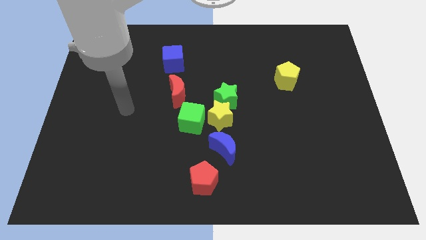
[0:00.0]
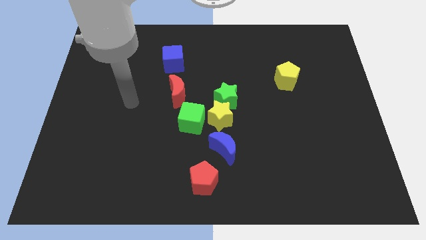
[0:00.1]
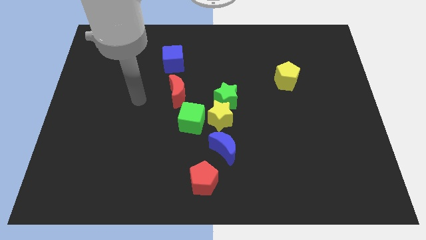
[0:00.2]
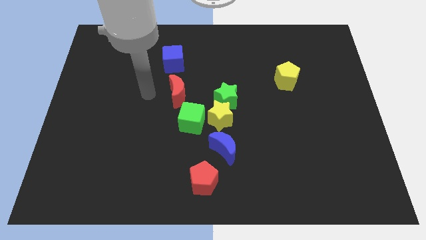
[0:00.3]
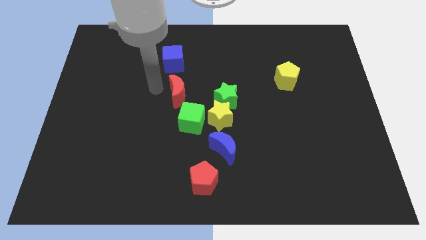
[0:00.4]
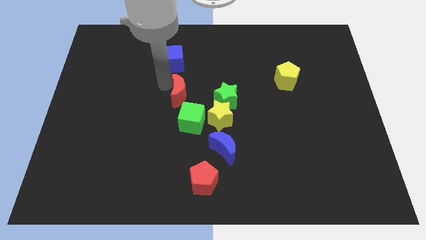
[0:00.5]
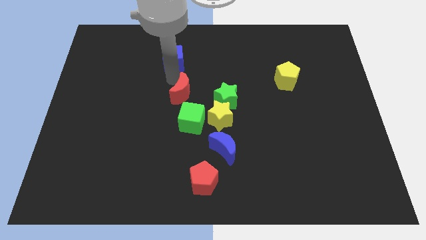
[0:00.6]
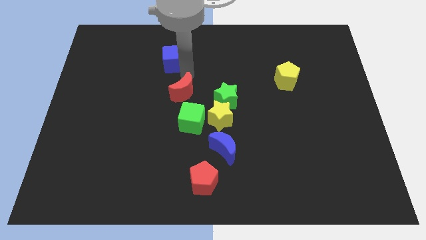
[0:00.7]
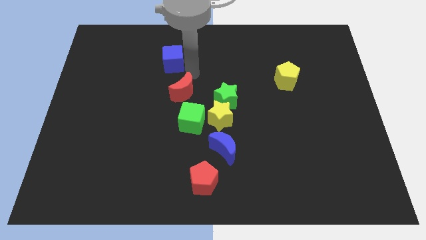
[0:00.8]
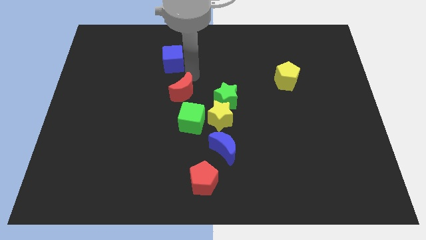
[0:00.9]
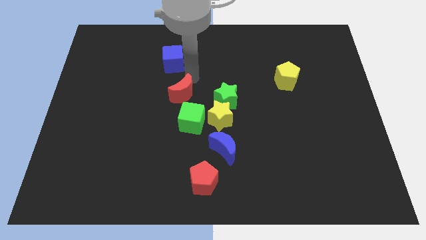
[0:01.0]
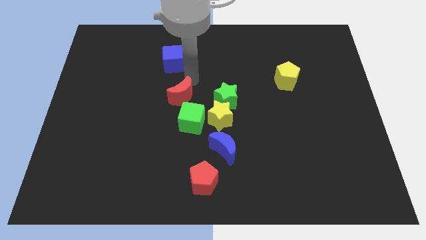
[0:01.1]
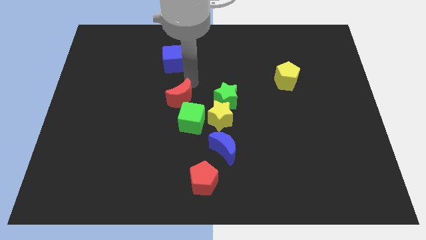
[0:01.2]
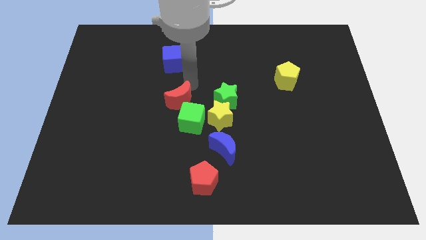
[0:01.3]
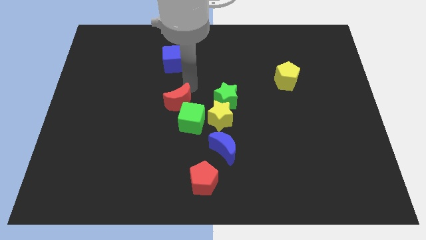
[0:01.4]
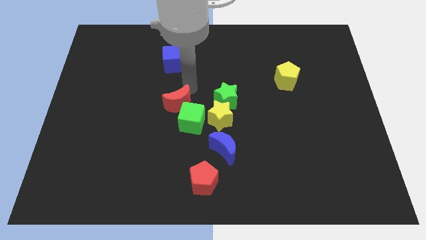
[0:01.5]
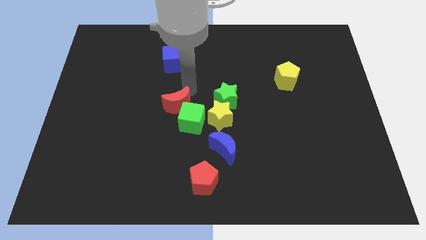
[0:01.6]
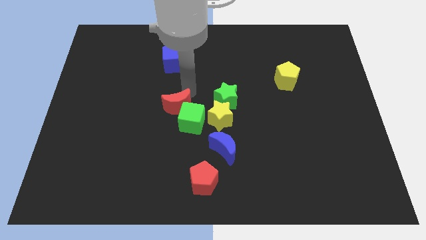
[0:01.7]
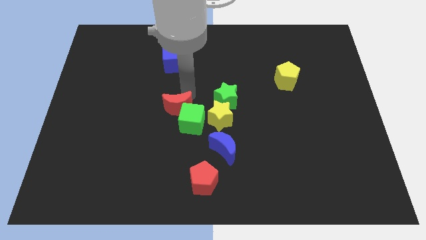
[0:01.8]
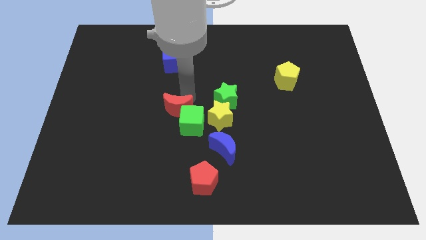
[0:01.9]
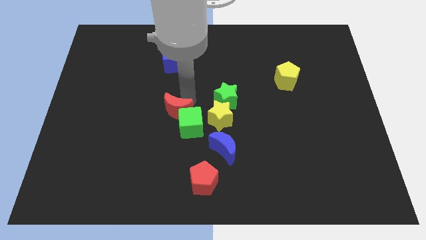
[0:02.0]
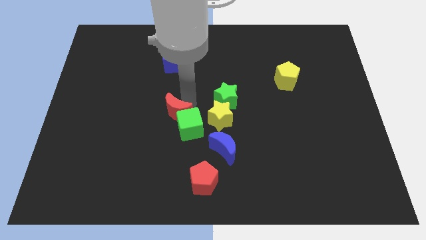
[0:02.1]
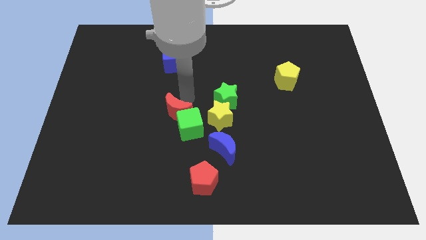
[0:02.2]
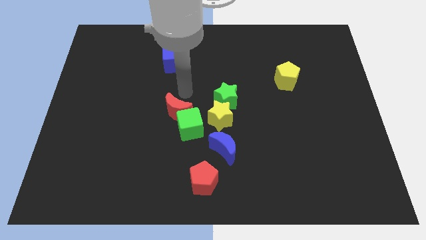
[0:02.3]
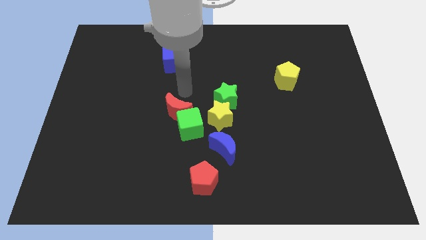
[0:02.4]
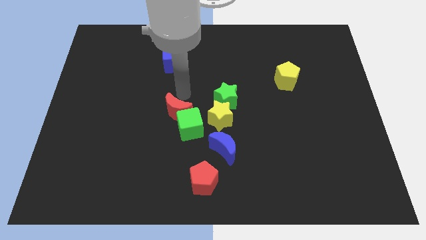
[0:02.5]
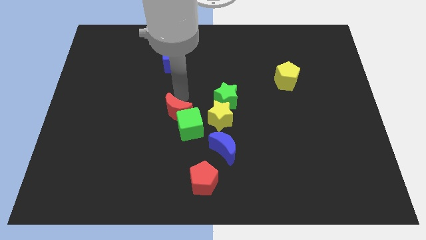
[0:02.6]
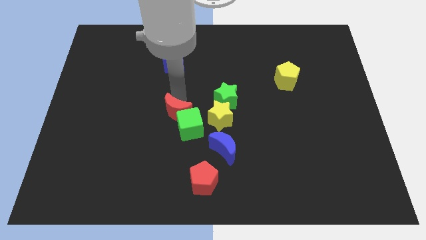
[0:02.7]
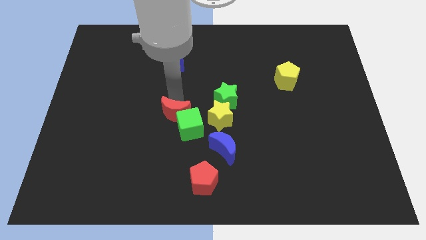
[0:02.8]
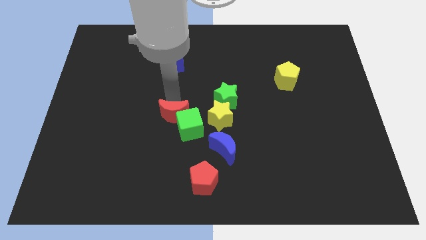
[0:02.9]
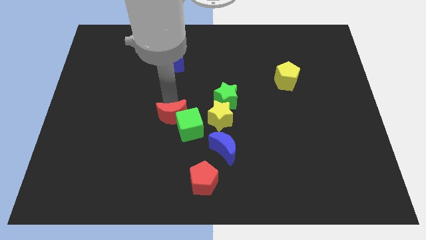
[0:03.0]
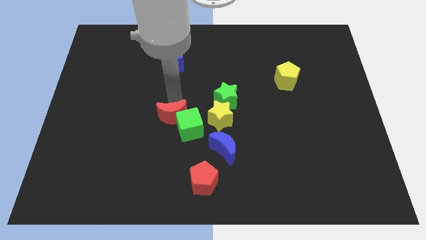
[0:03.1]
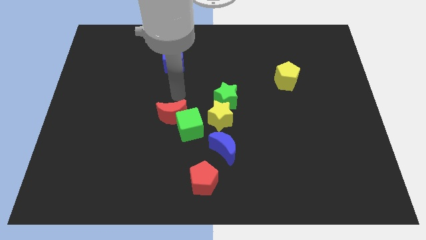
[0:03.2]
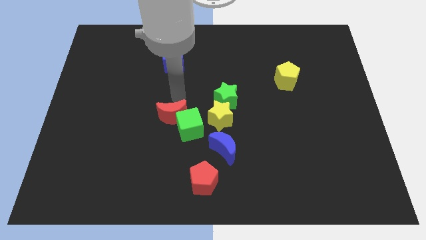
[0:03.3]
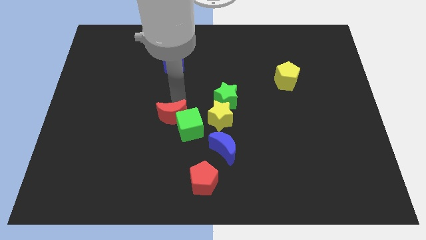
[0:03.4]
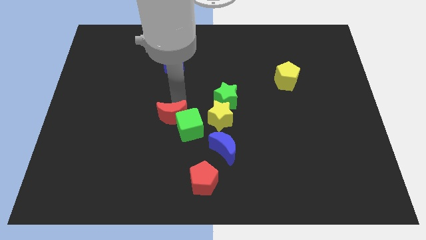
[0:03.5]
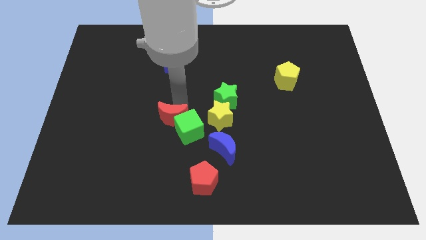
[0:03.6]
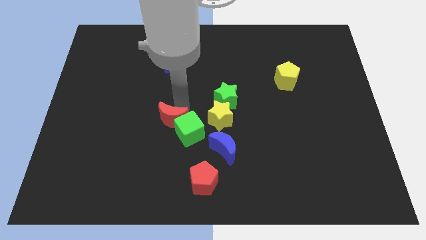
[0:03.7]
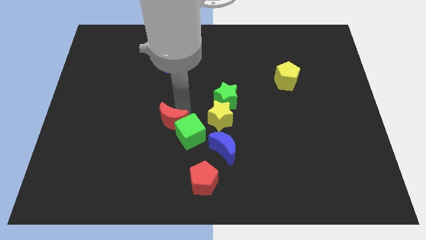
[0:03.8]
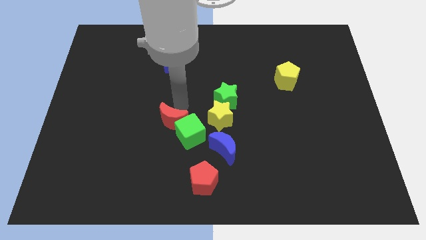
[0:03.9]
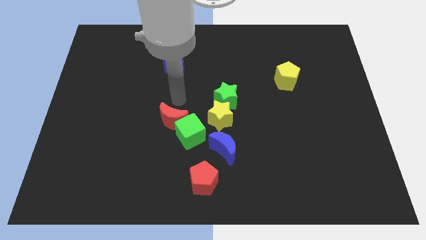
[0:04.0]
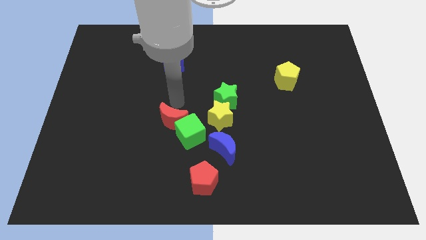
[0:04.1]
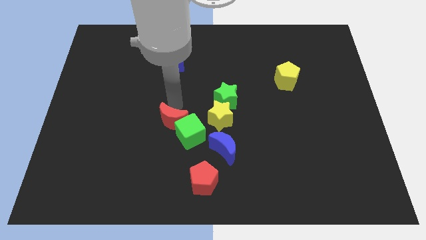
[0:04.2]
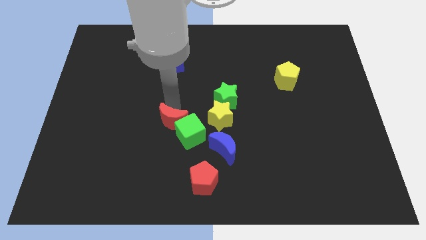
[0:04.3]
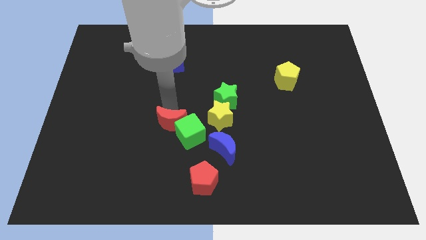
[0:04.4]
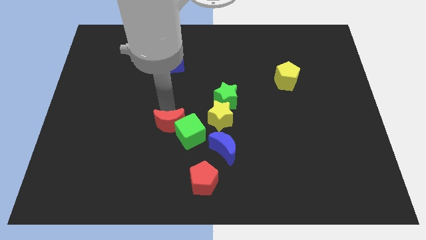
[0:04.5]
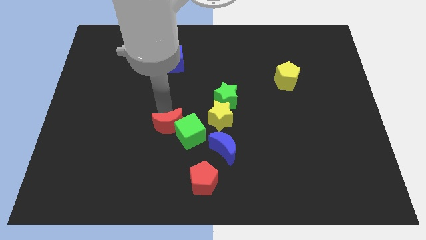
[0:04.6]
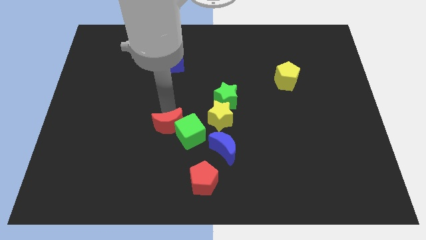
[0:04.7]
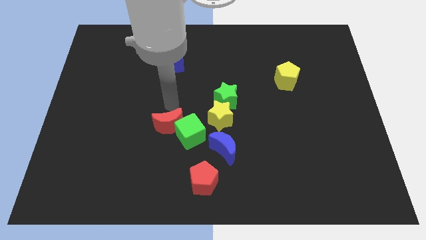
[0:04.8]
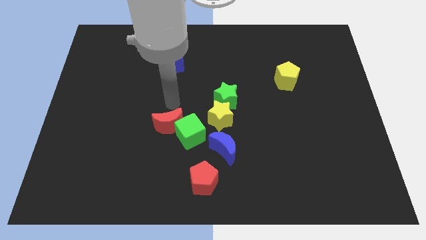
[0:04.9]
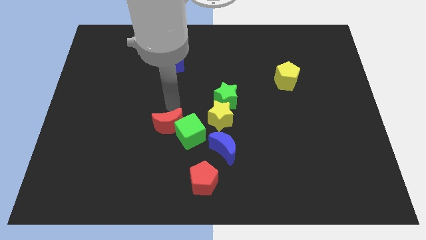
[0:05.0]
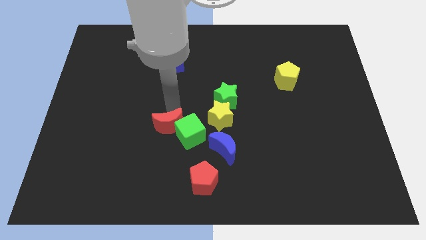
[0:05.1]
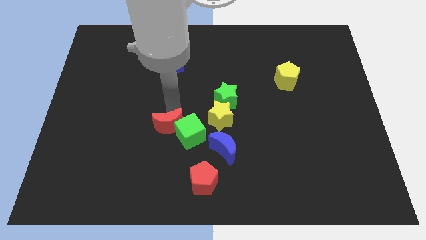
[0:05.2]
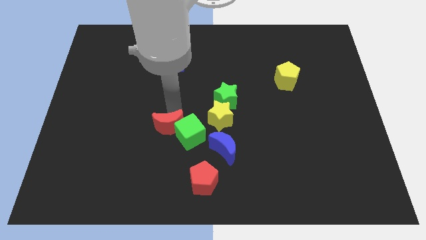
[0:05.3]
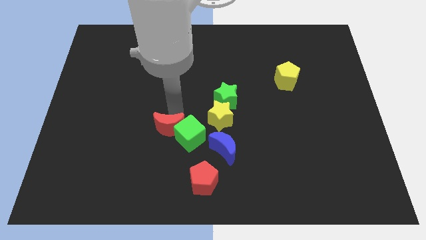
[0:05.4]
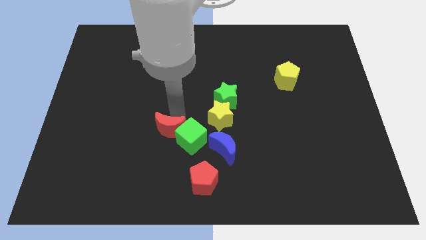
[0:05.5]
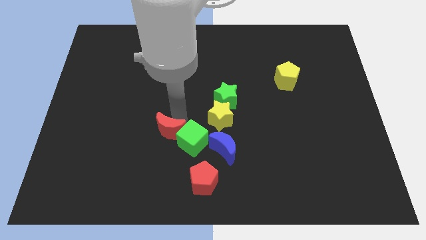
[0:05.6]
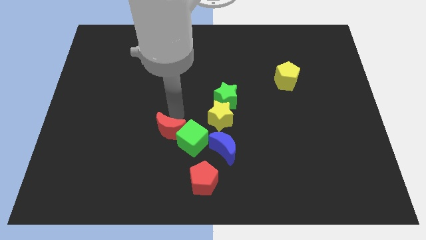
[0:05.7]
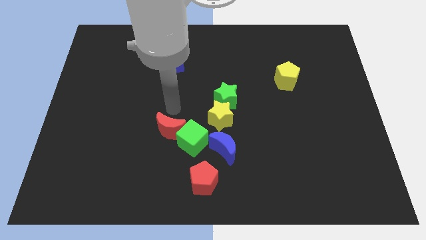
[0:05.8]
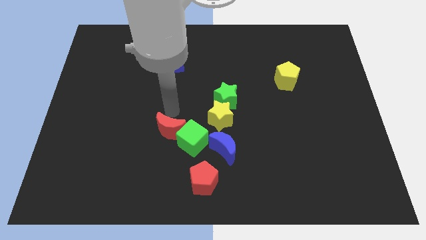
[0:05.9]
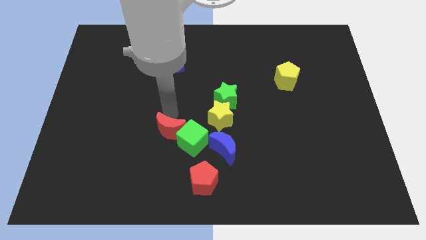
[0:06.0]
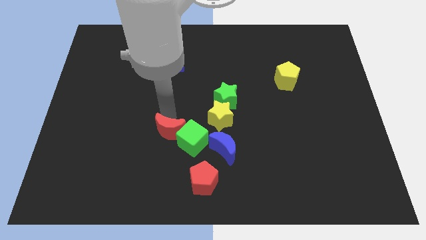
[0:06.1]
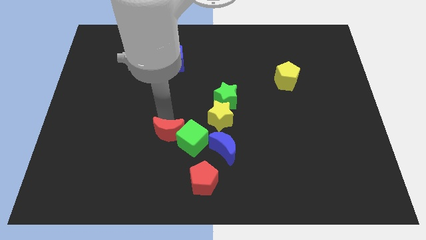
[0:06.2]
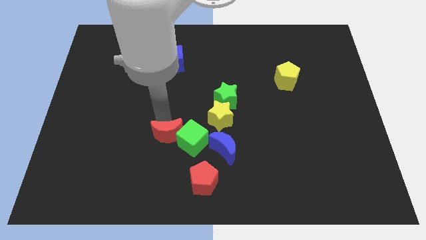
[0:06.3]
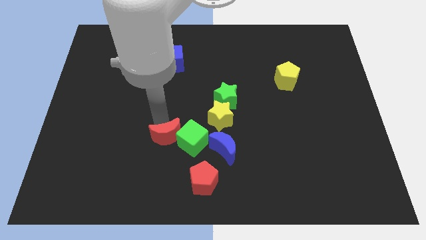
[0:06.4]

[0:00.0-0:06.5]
slide the red moon to the bottom left side of the green cube

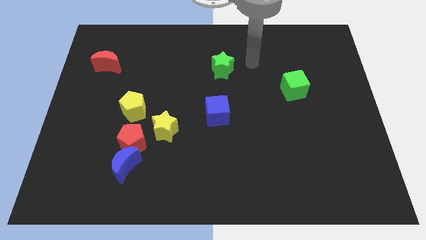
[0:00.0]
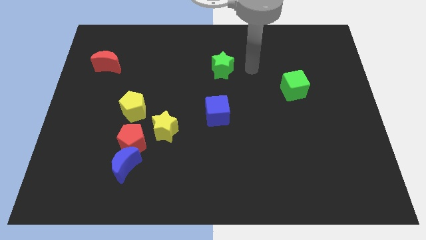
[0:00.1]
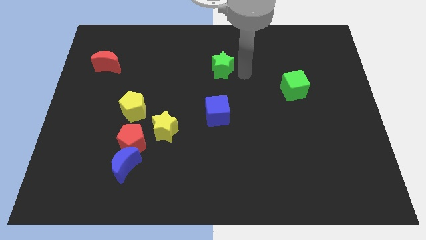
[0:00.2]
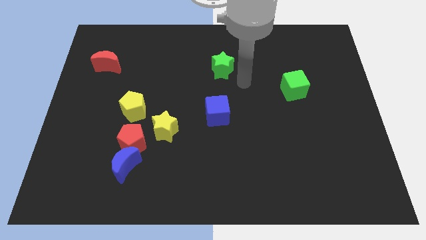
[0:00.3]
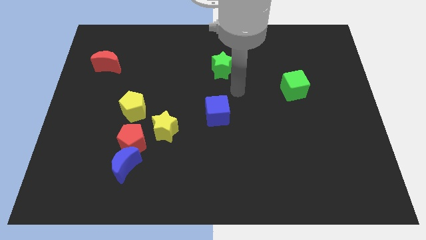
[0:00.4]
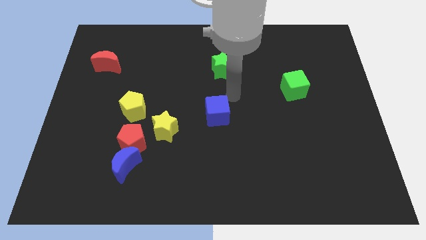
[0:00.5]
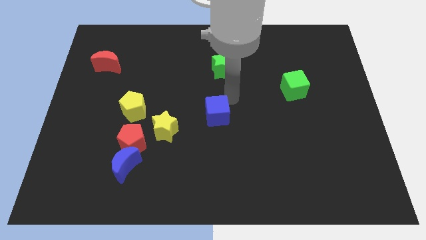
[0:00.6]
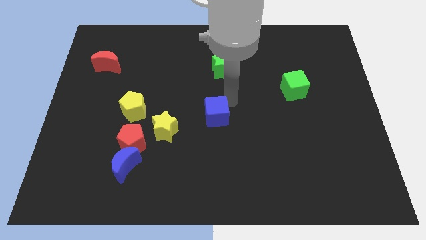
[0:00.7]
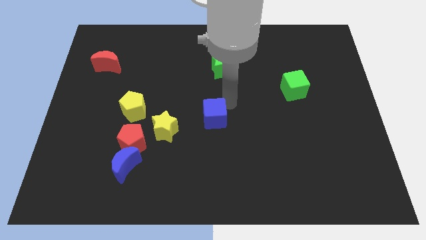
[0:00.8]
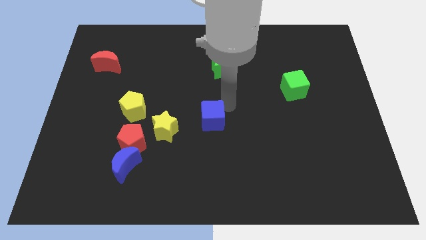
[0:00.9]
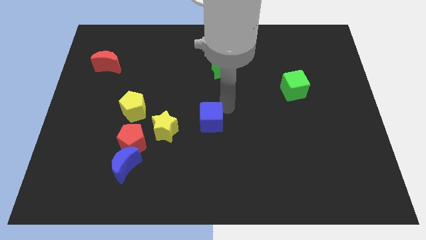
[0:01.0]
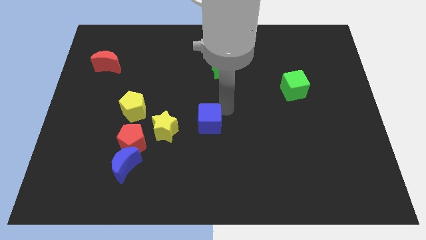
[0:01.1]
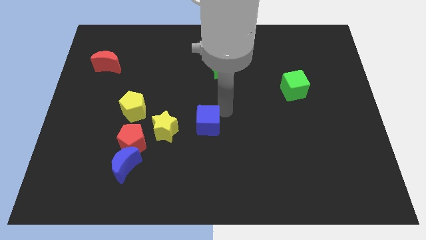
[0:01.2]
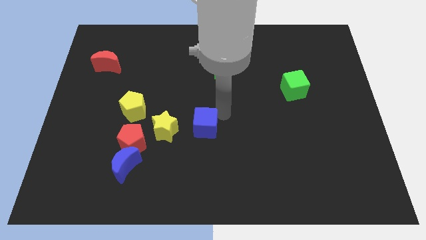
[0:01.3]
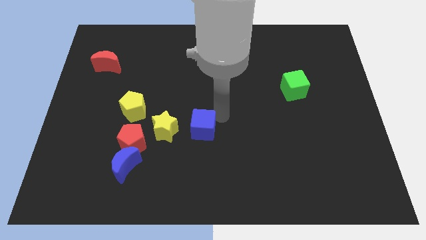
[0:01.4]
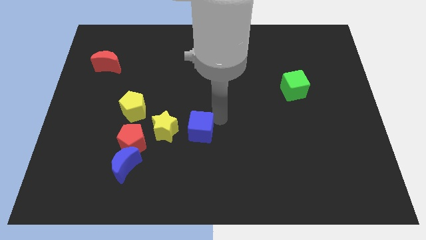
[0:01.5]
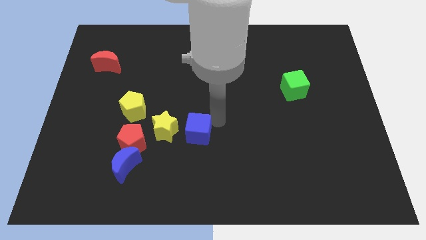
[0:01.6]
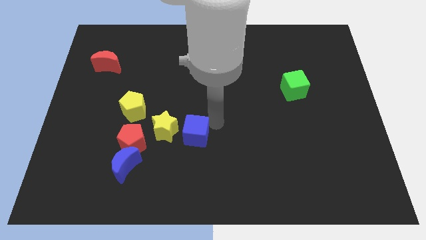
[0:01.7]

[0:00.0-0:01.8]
slide the blue cube to the bottom right side of the yellow star

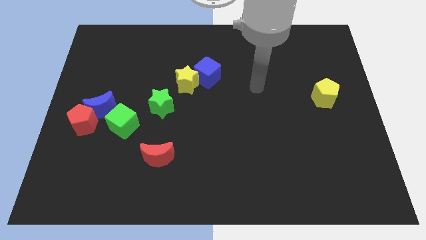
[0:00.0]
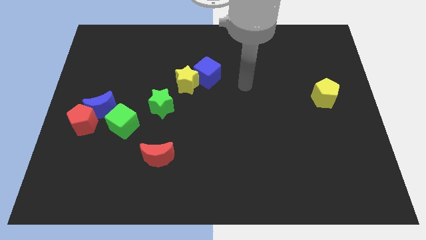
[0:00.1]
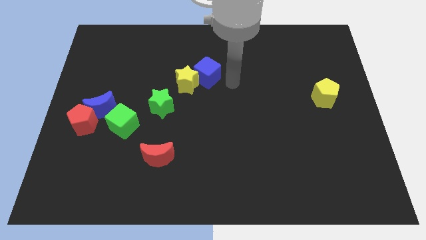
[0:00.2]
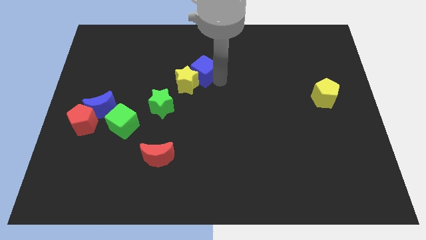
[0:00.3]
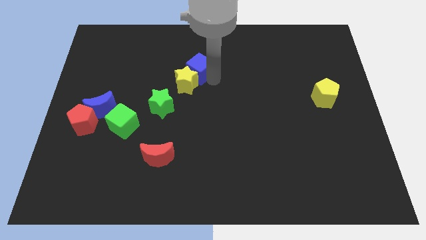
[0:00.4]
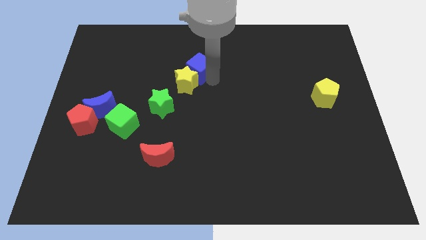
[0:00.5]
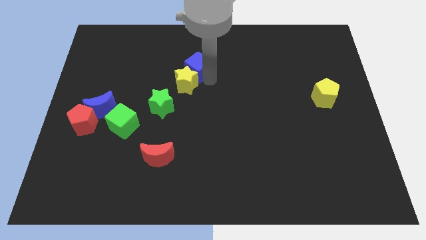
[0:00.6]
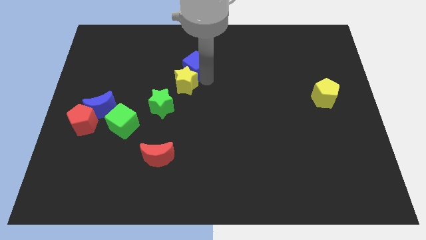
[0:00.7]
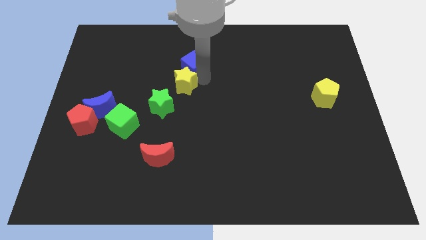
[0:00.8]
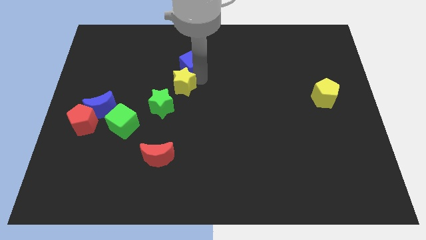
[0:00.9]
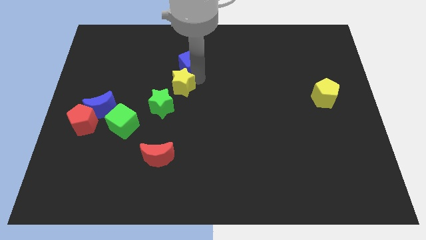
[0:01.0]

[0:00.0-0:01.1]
push the yellow star to the top side of the green star
